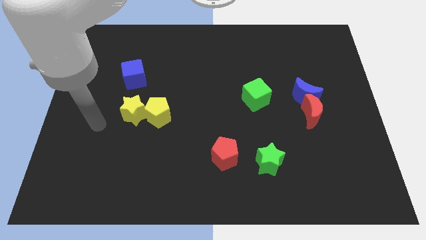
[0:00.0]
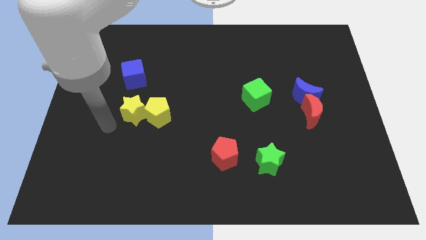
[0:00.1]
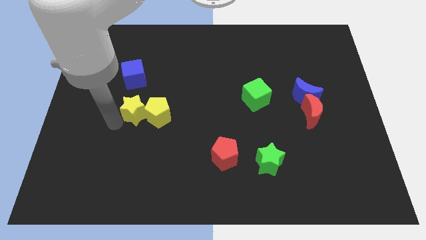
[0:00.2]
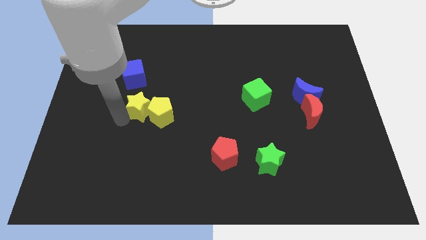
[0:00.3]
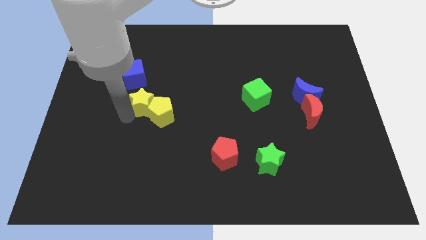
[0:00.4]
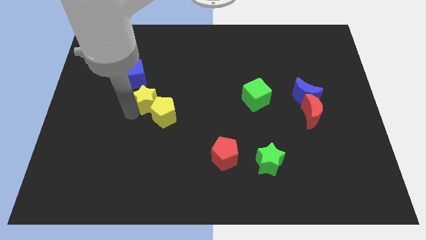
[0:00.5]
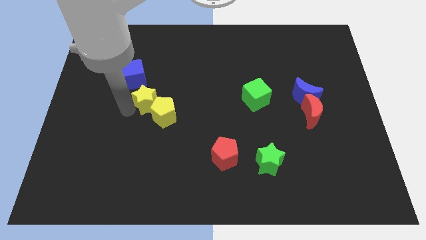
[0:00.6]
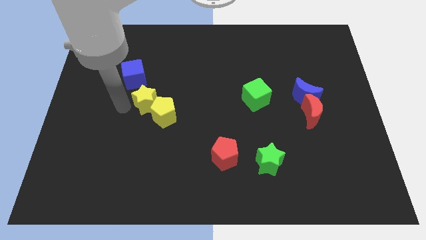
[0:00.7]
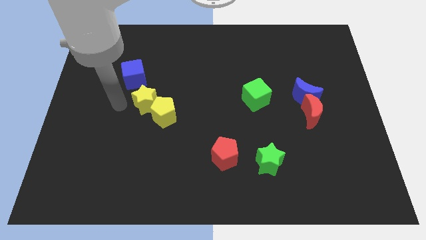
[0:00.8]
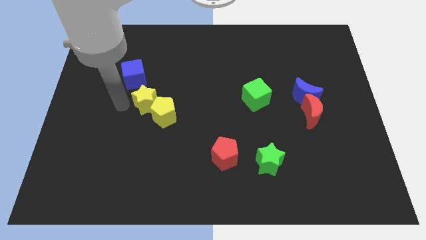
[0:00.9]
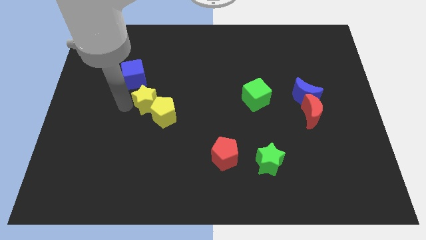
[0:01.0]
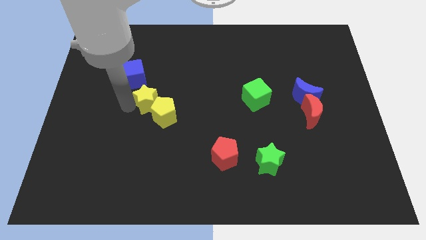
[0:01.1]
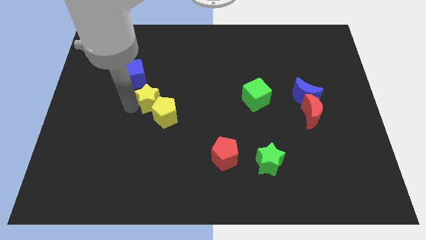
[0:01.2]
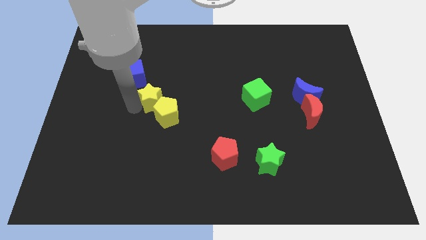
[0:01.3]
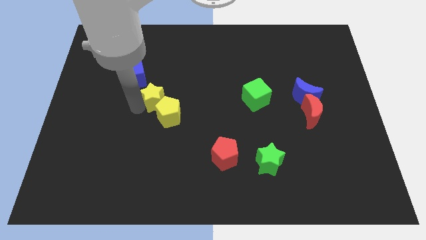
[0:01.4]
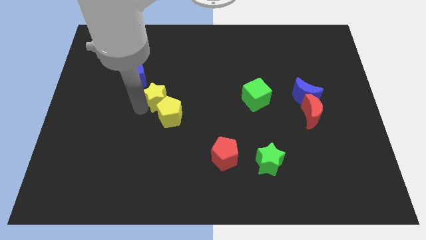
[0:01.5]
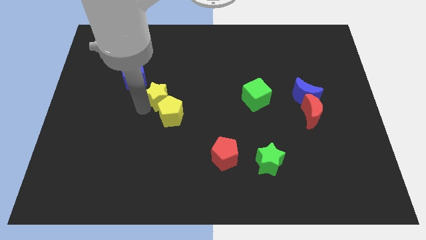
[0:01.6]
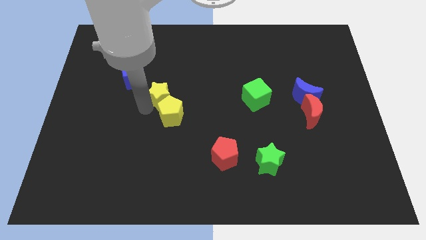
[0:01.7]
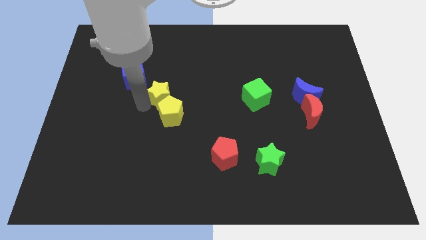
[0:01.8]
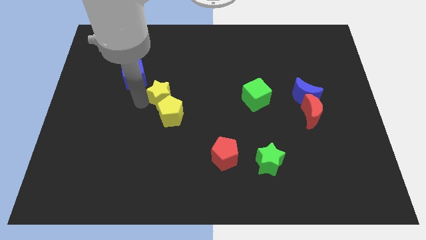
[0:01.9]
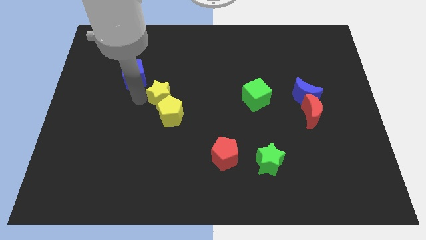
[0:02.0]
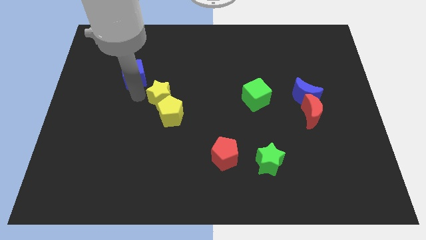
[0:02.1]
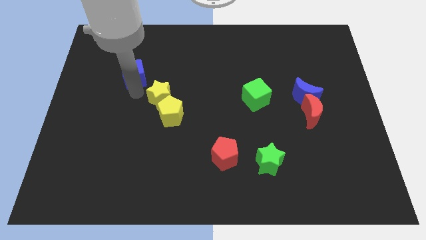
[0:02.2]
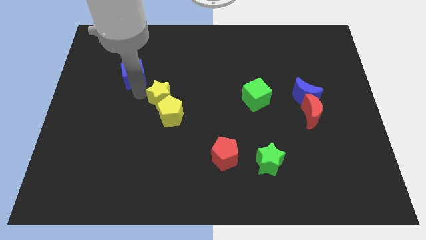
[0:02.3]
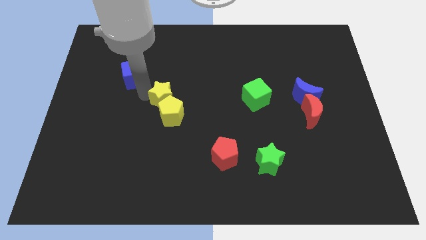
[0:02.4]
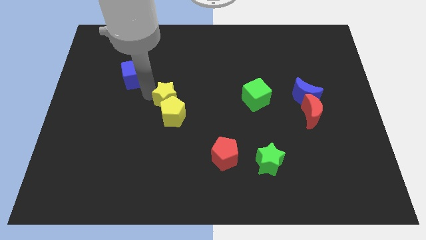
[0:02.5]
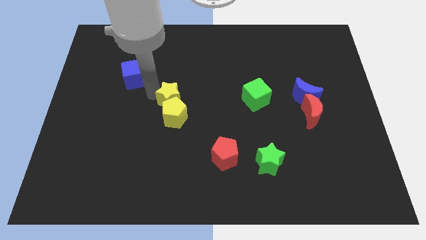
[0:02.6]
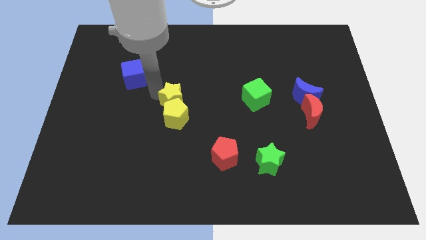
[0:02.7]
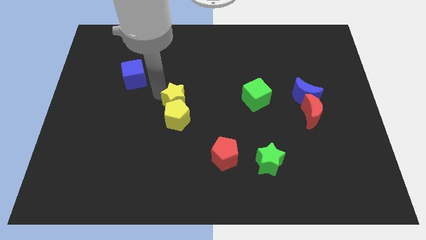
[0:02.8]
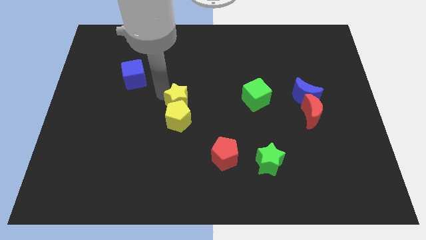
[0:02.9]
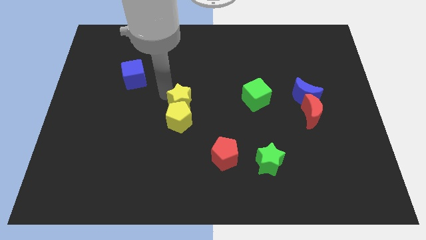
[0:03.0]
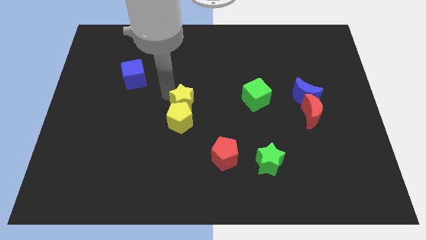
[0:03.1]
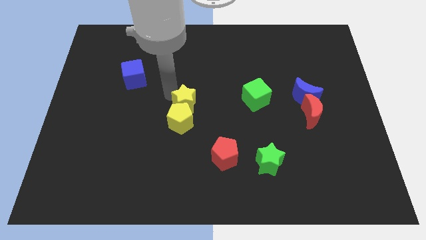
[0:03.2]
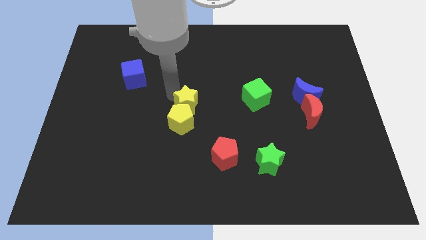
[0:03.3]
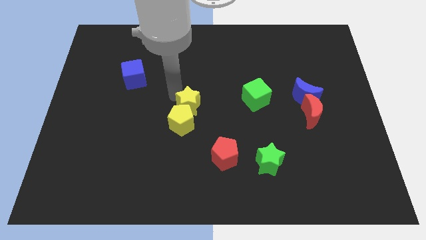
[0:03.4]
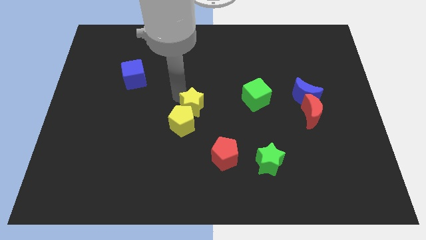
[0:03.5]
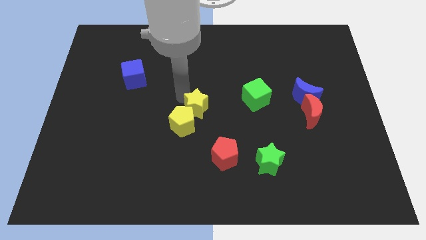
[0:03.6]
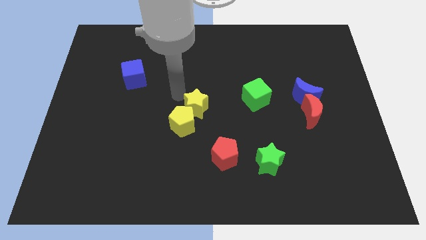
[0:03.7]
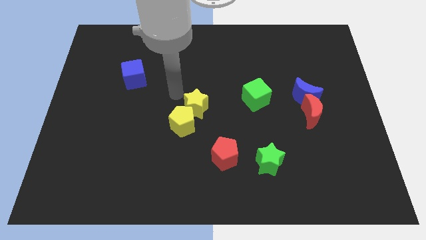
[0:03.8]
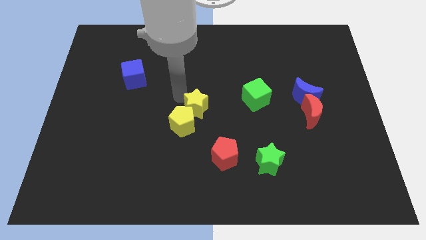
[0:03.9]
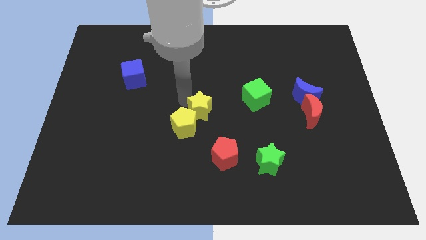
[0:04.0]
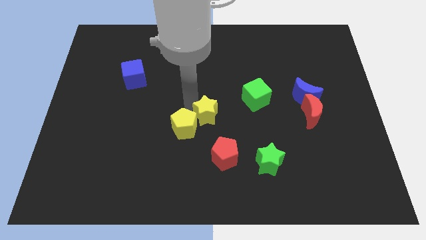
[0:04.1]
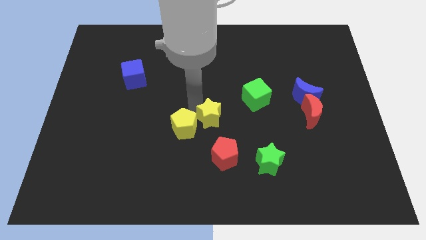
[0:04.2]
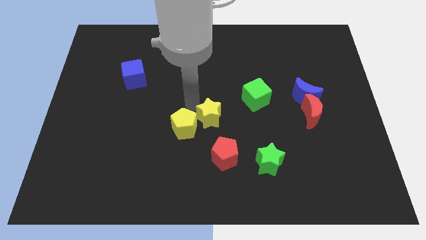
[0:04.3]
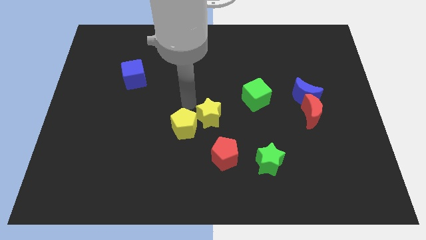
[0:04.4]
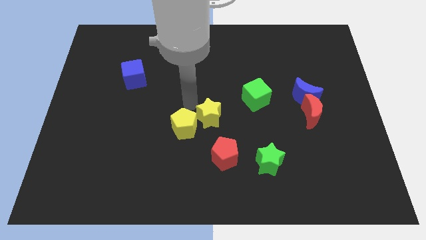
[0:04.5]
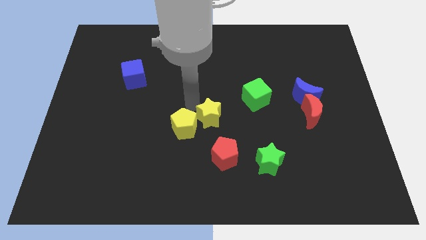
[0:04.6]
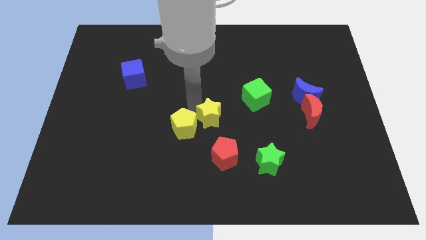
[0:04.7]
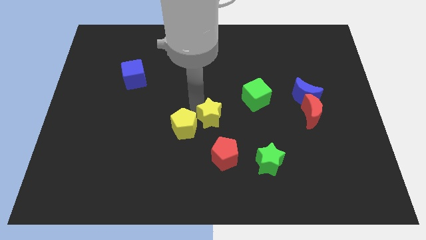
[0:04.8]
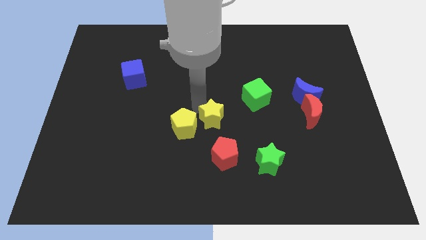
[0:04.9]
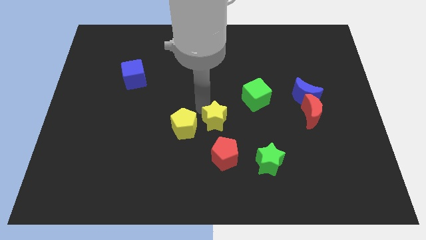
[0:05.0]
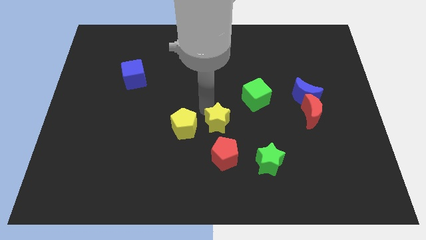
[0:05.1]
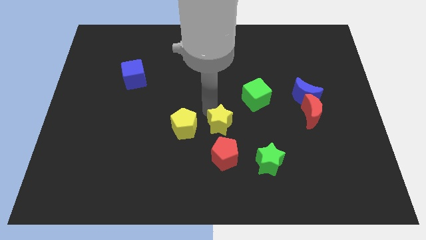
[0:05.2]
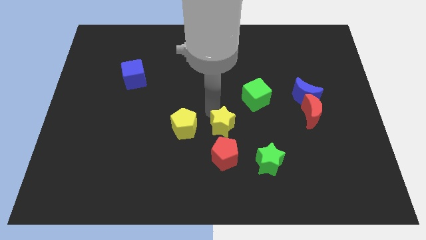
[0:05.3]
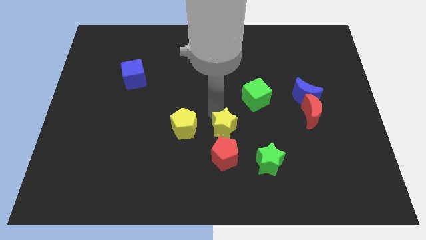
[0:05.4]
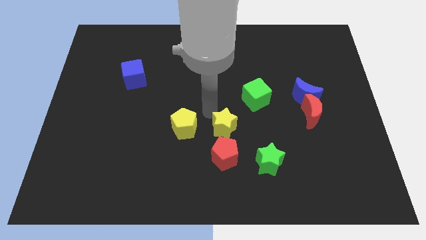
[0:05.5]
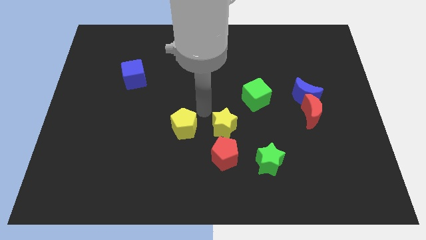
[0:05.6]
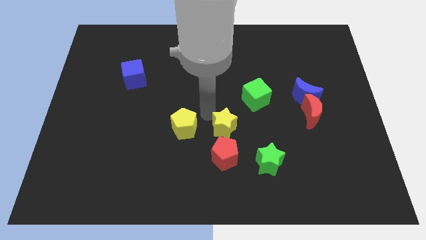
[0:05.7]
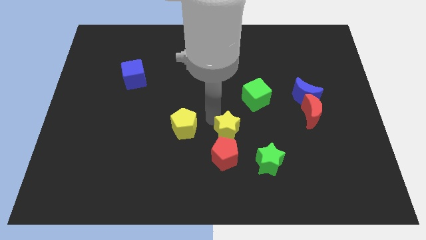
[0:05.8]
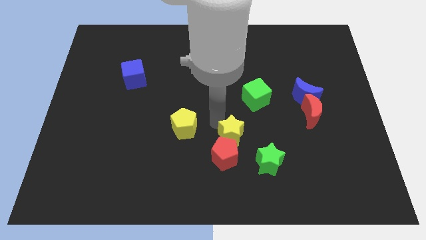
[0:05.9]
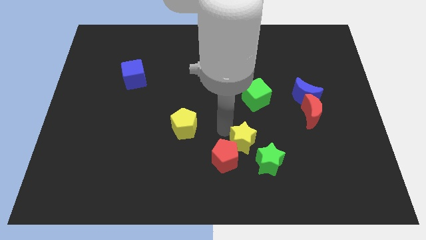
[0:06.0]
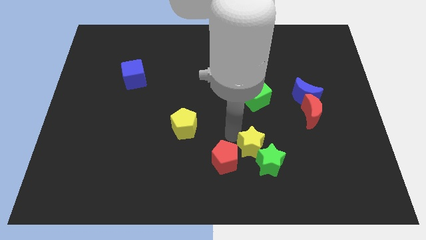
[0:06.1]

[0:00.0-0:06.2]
put the yellow star next to the green star

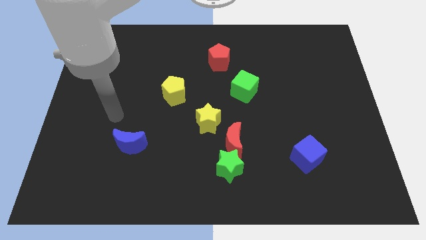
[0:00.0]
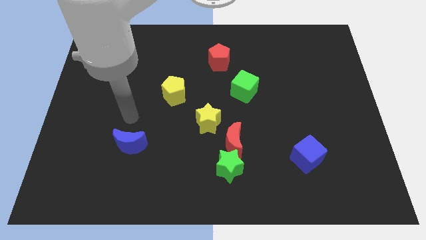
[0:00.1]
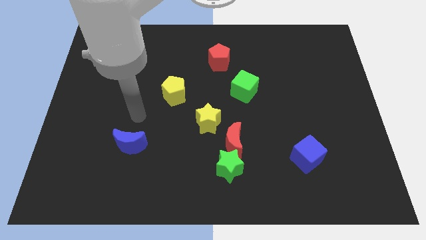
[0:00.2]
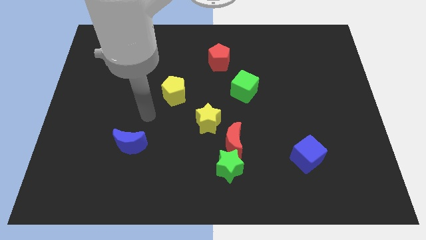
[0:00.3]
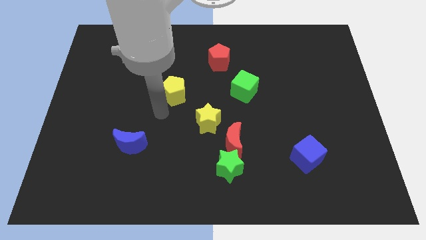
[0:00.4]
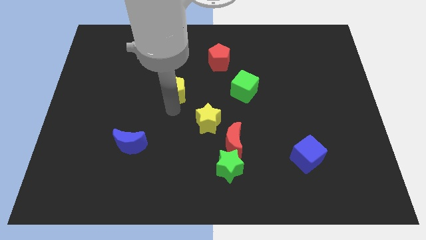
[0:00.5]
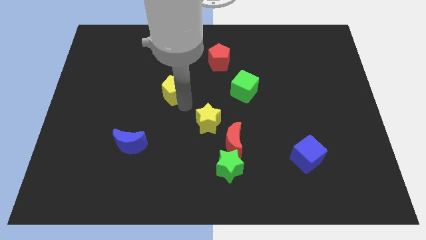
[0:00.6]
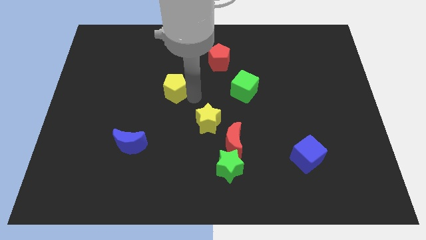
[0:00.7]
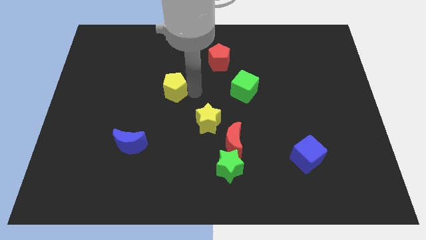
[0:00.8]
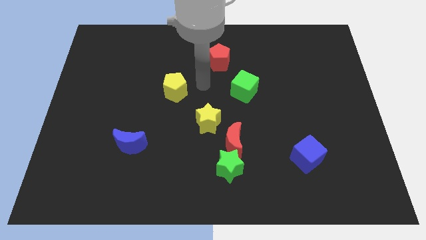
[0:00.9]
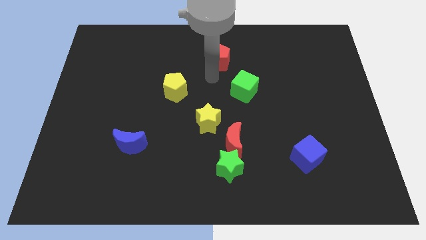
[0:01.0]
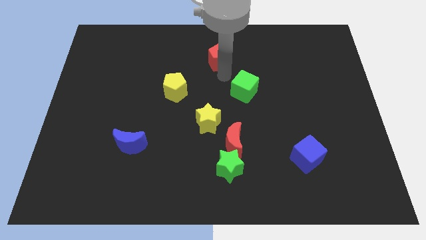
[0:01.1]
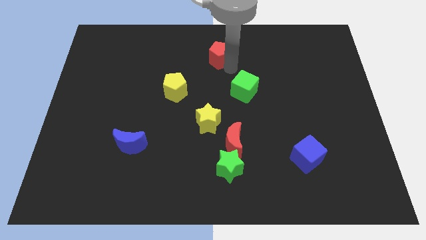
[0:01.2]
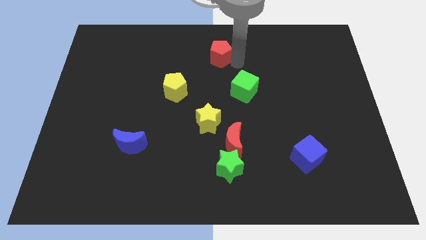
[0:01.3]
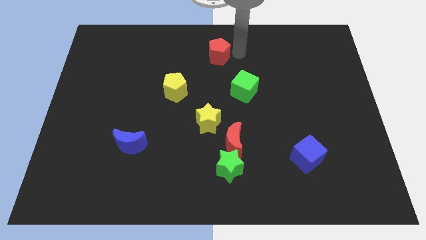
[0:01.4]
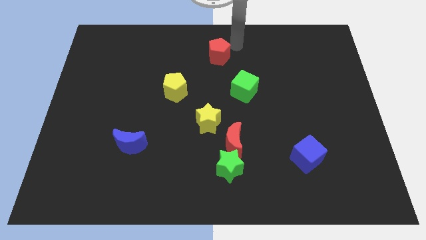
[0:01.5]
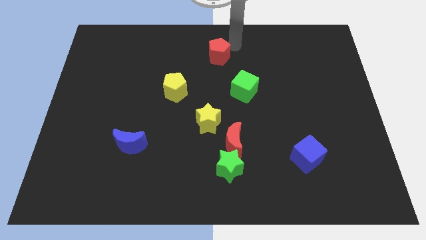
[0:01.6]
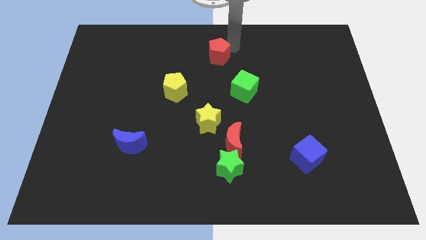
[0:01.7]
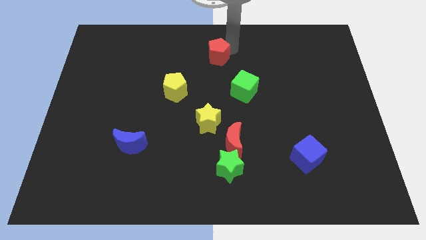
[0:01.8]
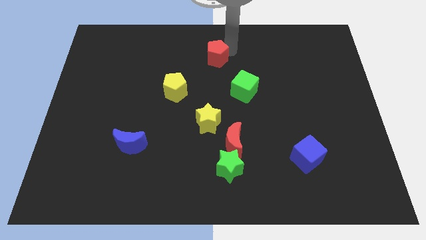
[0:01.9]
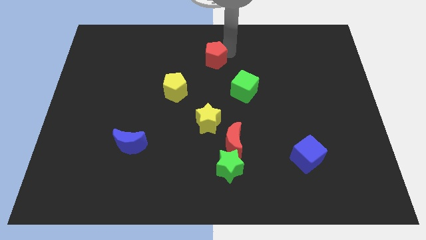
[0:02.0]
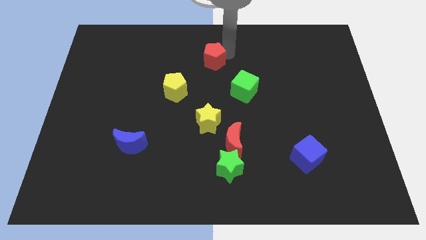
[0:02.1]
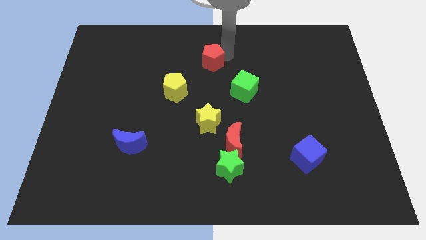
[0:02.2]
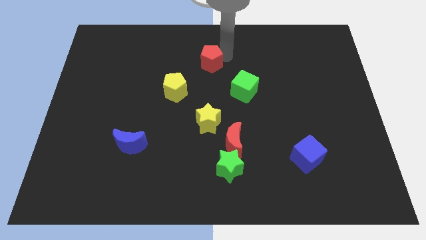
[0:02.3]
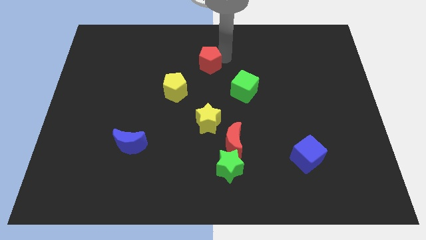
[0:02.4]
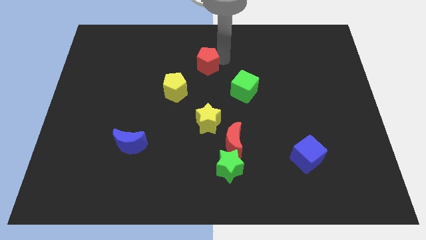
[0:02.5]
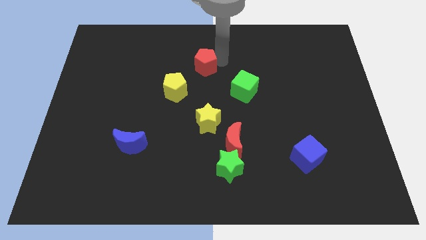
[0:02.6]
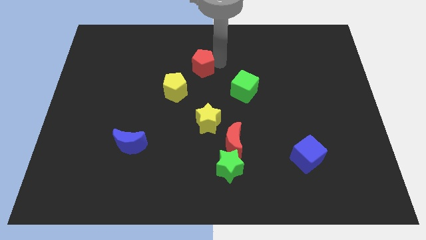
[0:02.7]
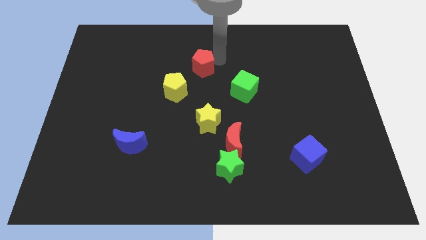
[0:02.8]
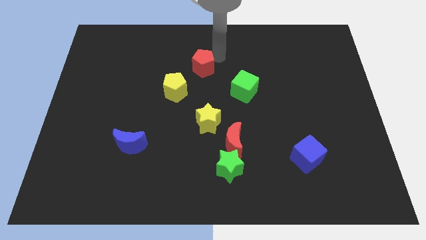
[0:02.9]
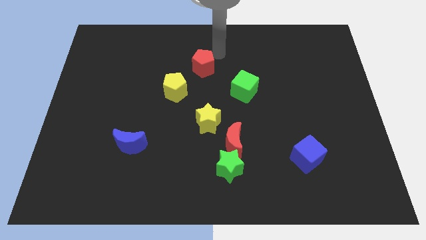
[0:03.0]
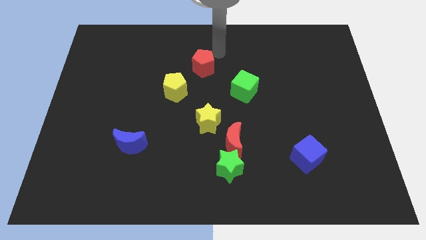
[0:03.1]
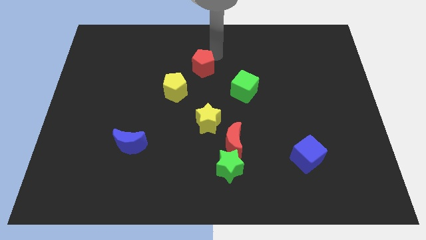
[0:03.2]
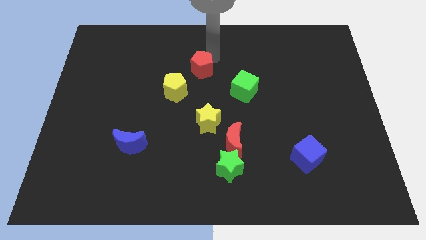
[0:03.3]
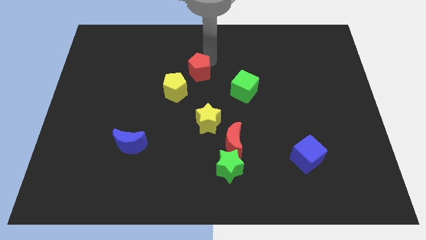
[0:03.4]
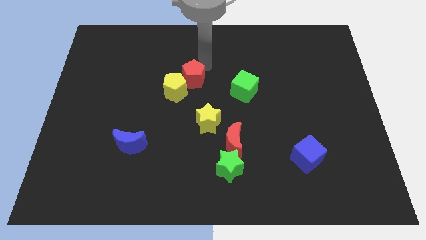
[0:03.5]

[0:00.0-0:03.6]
push the red pentagon close to the yellow pentagon
